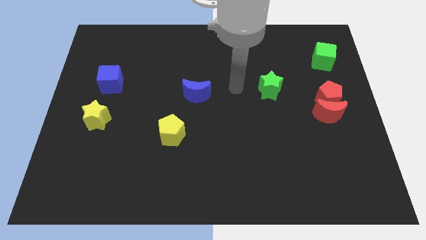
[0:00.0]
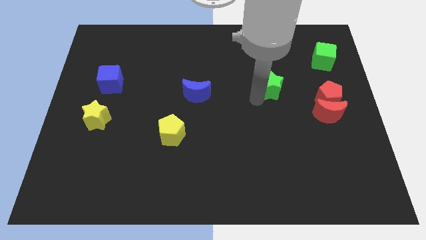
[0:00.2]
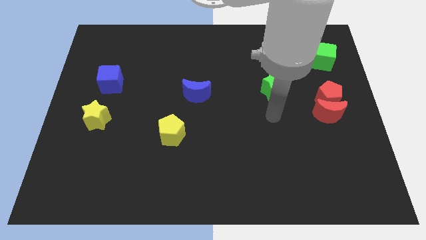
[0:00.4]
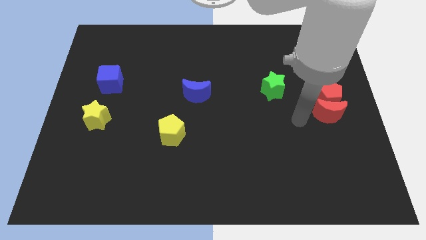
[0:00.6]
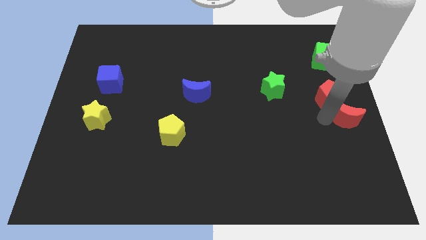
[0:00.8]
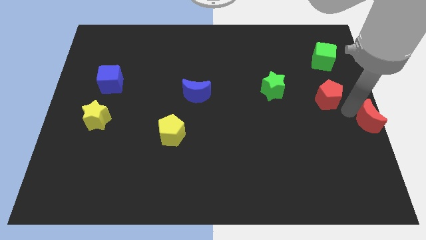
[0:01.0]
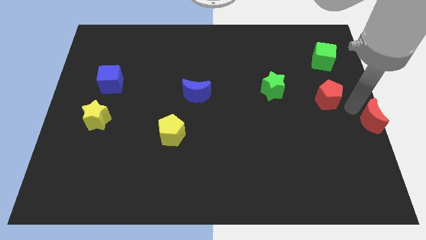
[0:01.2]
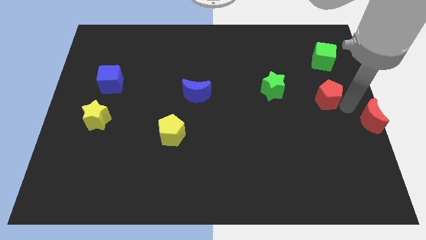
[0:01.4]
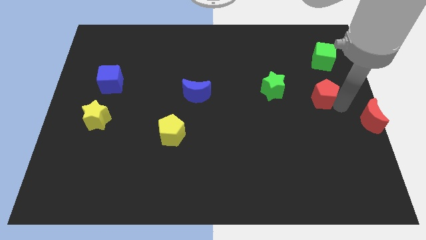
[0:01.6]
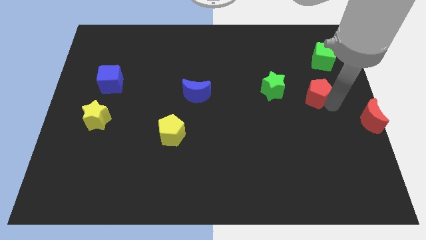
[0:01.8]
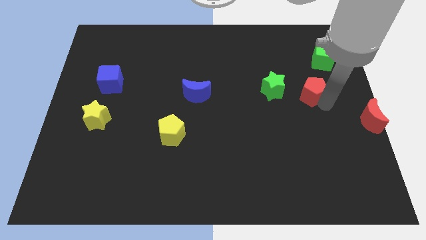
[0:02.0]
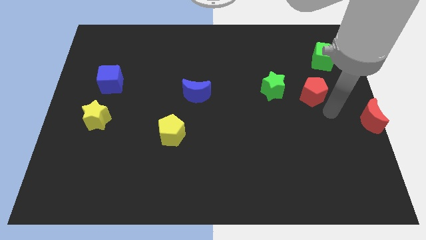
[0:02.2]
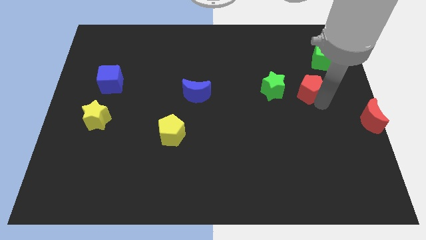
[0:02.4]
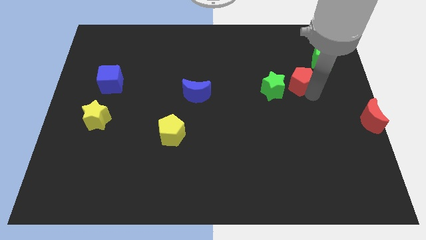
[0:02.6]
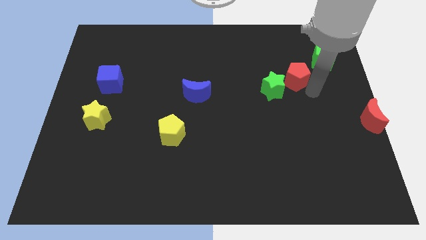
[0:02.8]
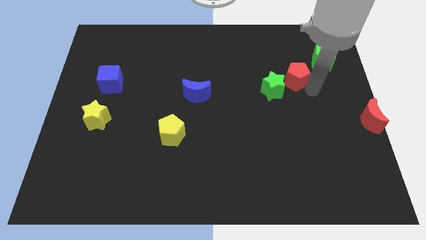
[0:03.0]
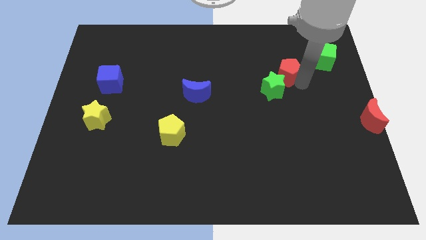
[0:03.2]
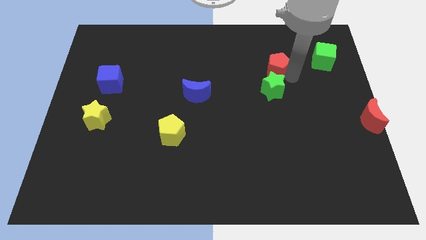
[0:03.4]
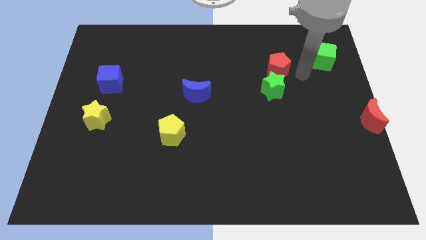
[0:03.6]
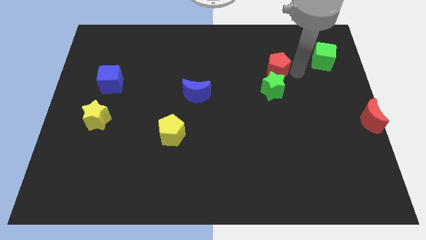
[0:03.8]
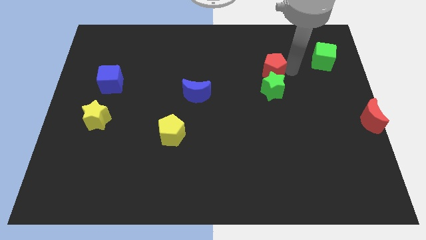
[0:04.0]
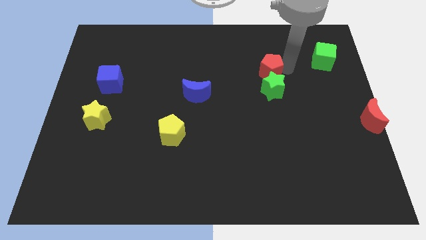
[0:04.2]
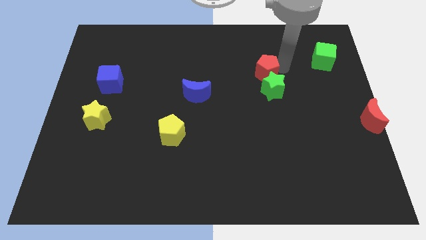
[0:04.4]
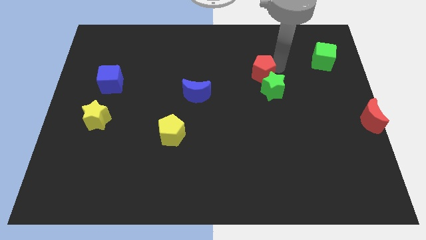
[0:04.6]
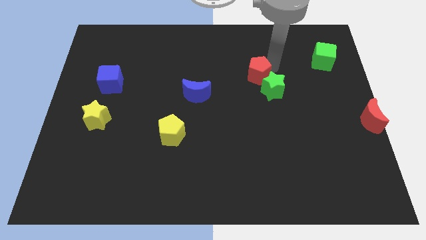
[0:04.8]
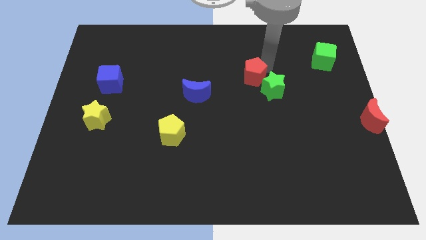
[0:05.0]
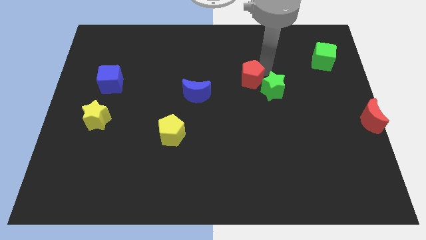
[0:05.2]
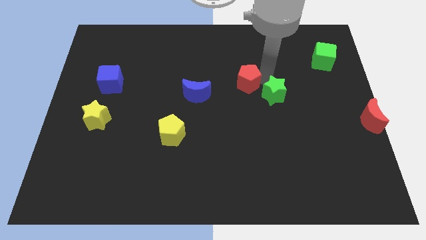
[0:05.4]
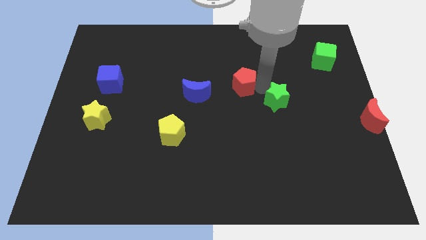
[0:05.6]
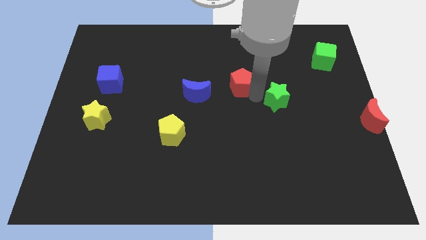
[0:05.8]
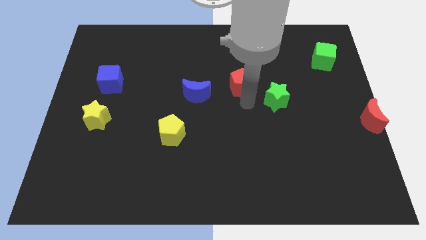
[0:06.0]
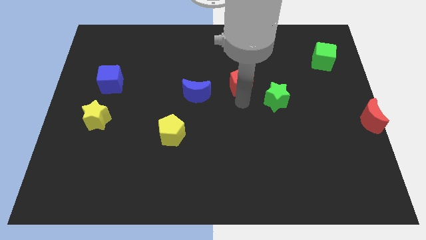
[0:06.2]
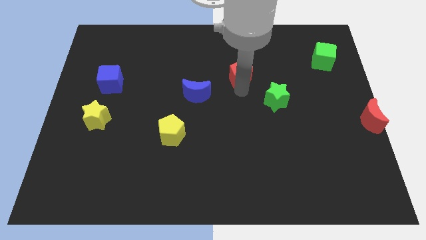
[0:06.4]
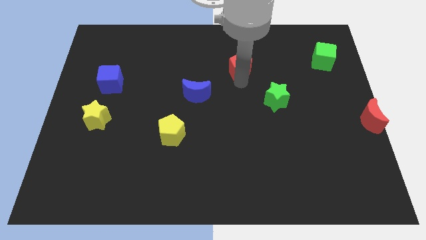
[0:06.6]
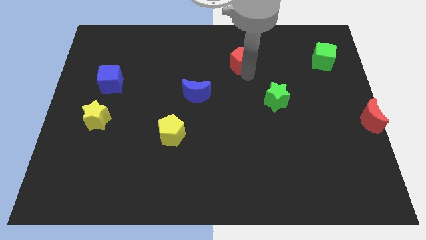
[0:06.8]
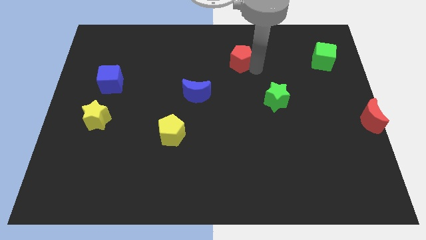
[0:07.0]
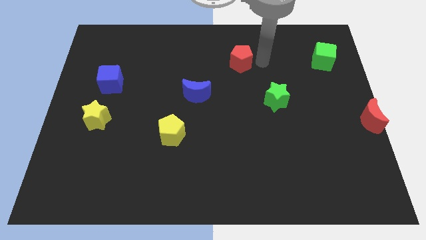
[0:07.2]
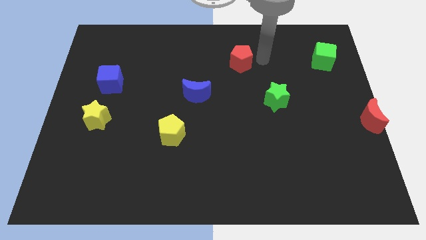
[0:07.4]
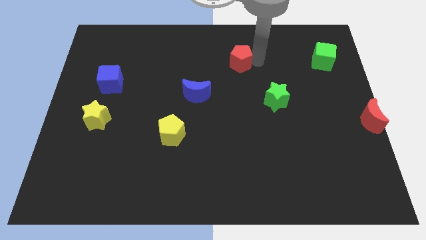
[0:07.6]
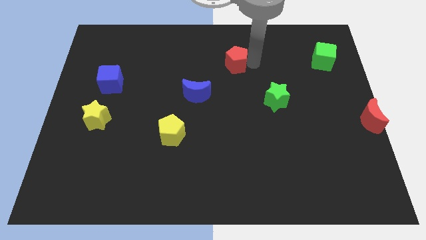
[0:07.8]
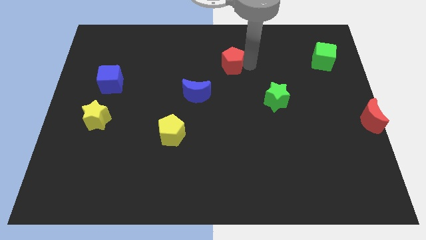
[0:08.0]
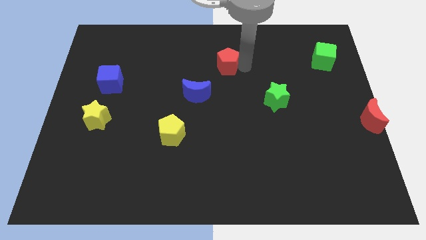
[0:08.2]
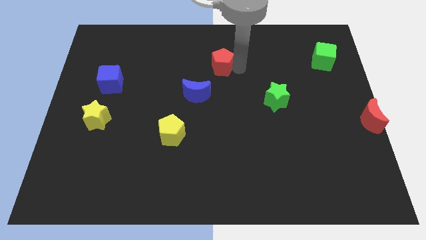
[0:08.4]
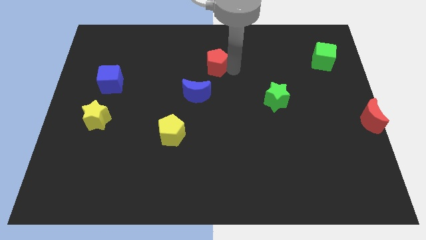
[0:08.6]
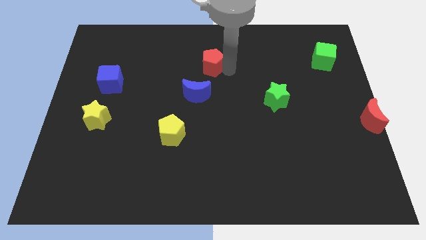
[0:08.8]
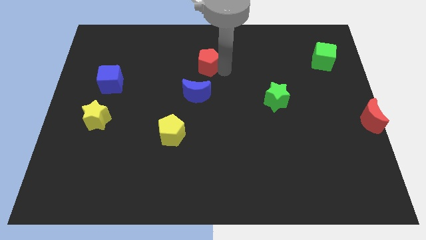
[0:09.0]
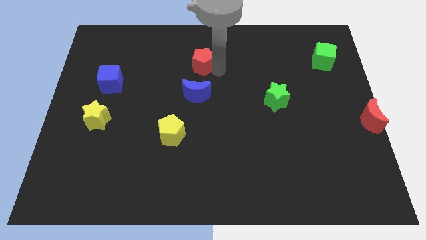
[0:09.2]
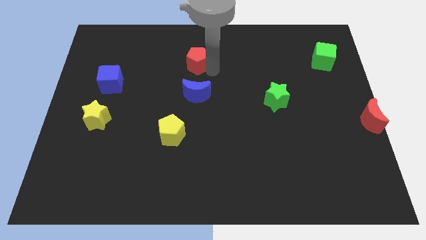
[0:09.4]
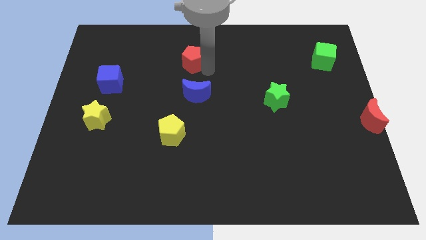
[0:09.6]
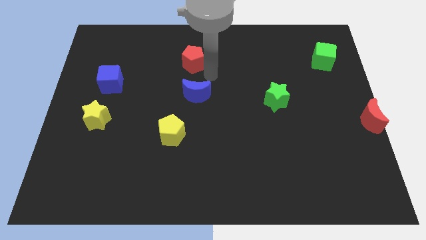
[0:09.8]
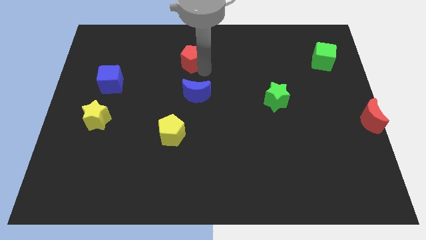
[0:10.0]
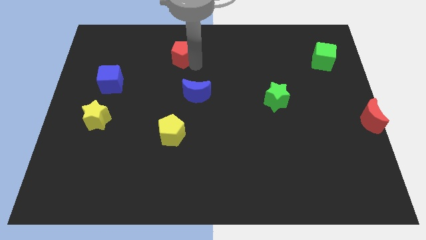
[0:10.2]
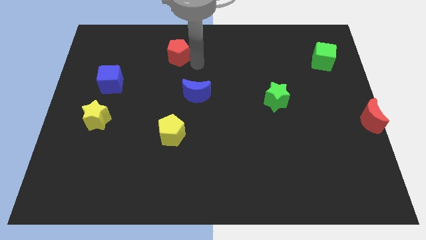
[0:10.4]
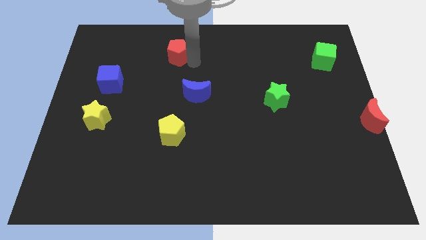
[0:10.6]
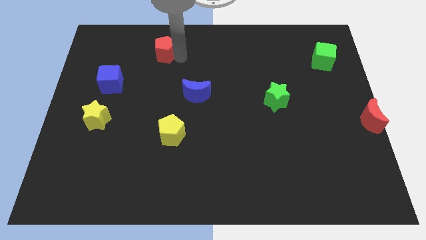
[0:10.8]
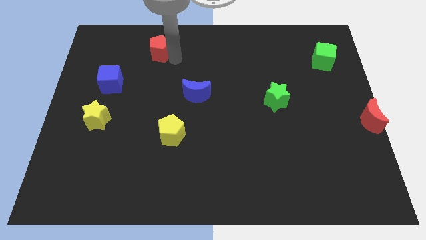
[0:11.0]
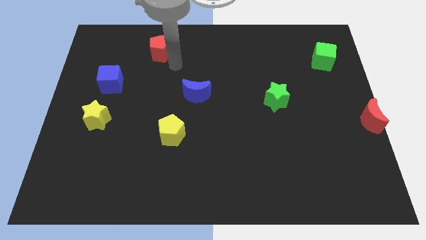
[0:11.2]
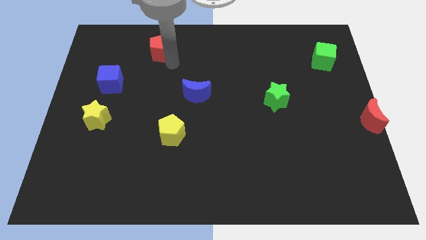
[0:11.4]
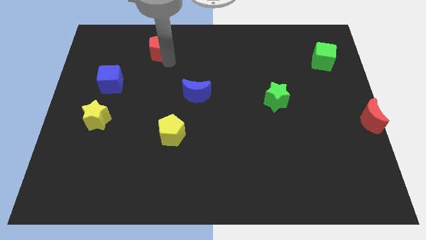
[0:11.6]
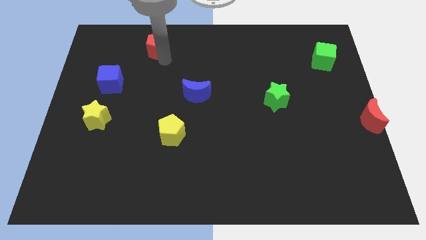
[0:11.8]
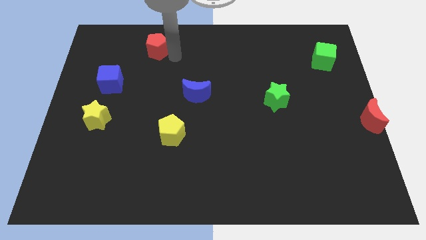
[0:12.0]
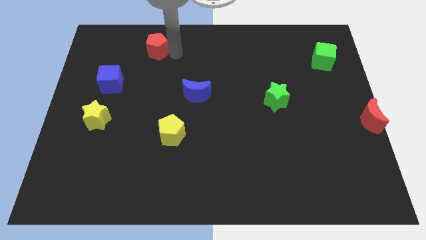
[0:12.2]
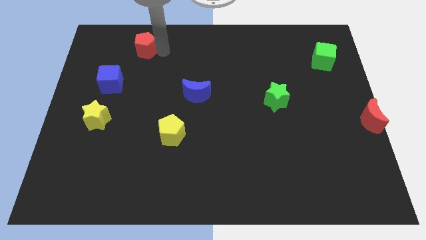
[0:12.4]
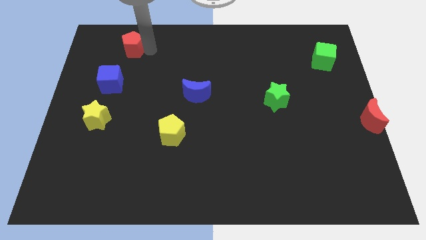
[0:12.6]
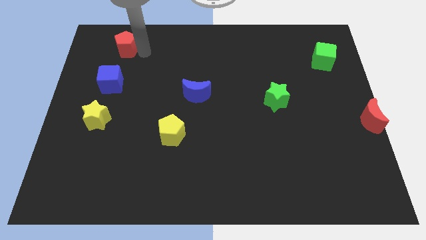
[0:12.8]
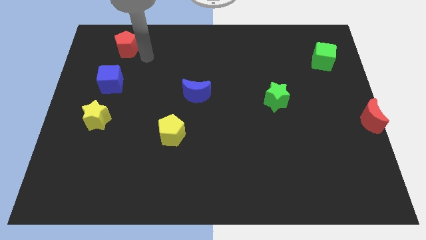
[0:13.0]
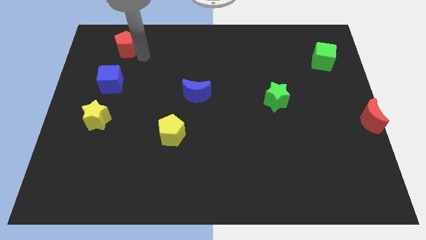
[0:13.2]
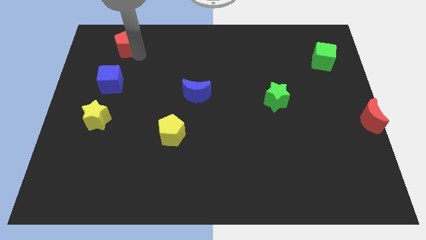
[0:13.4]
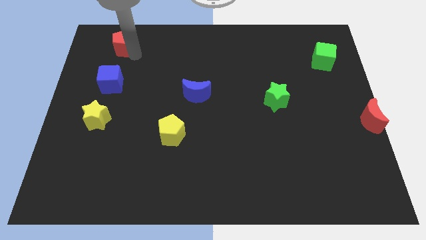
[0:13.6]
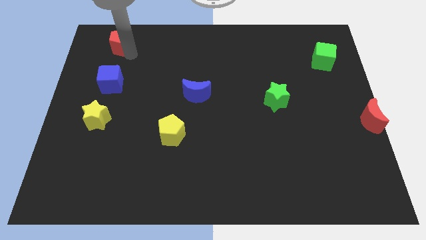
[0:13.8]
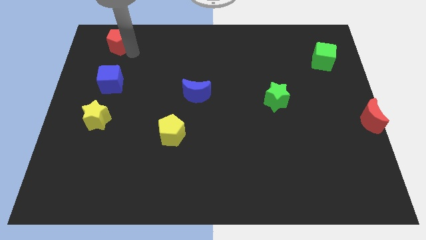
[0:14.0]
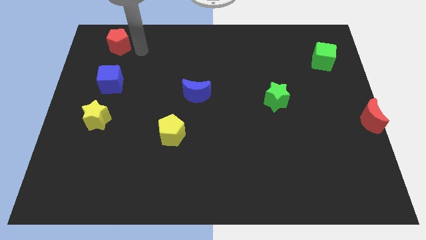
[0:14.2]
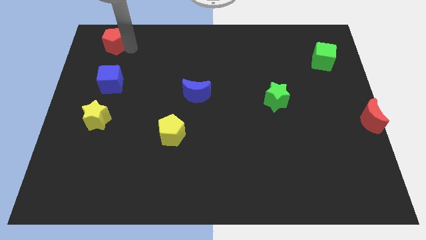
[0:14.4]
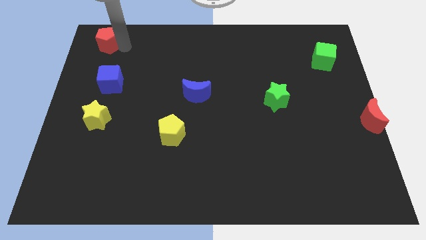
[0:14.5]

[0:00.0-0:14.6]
put the red pentagon to the top left
